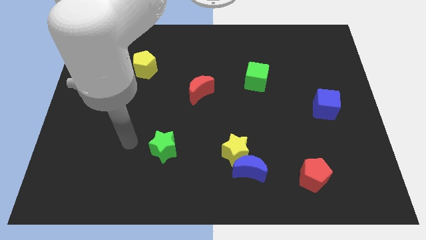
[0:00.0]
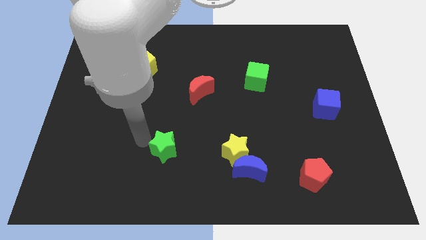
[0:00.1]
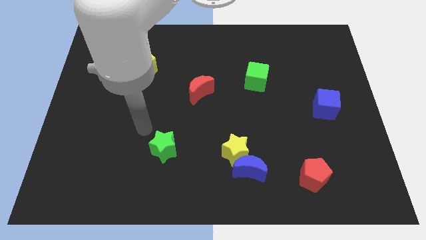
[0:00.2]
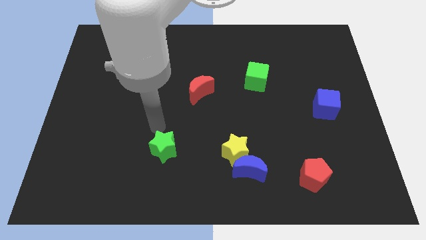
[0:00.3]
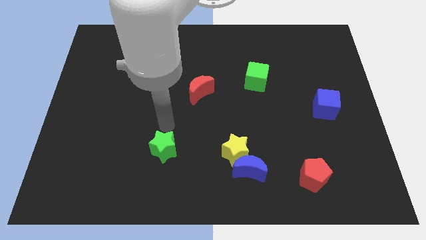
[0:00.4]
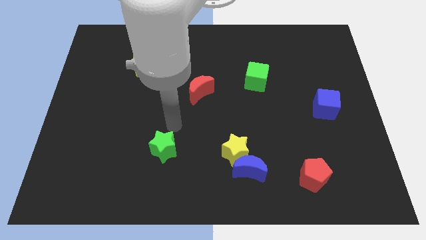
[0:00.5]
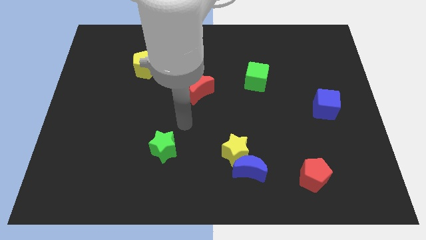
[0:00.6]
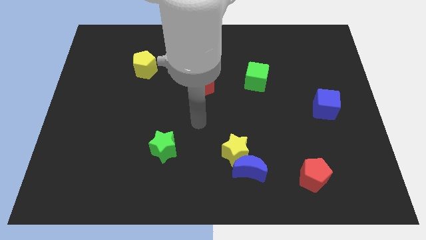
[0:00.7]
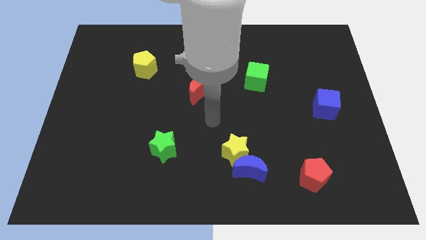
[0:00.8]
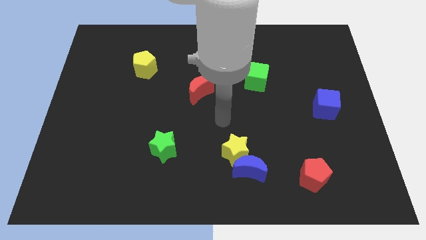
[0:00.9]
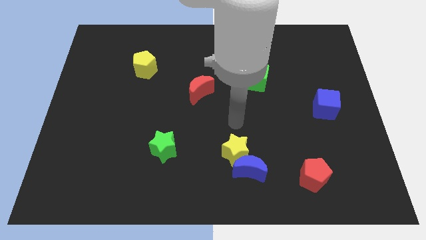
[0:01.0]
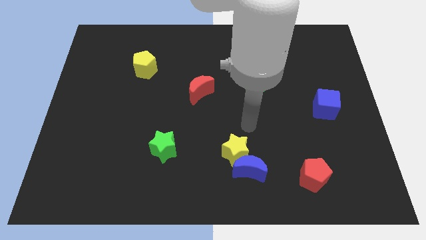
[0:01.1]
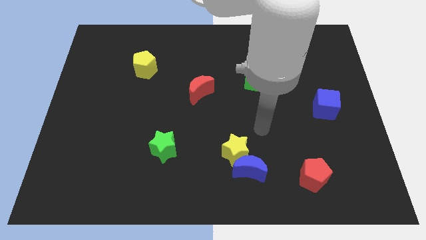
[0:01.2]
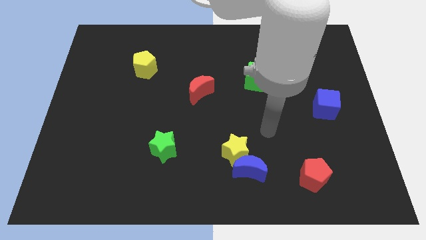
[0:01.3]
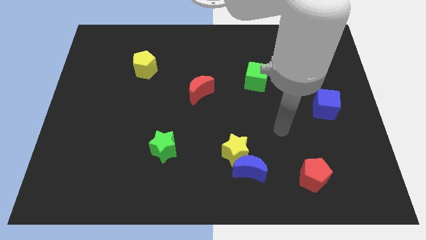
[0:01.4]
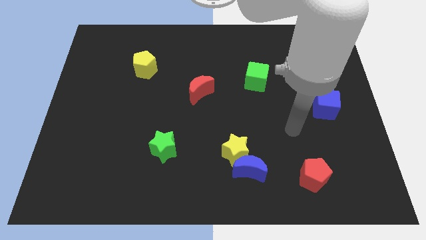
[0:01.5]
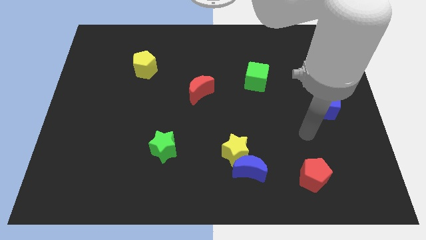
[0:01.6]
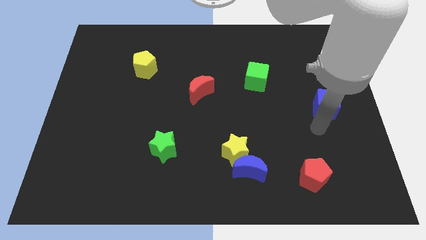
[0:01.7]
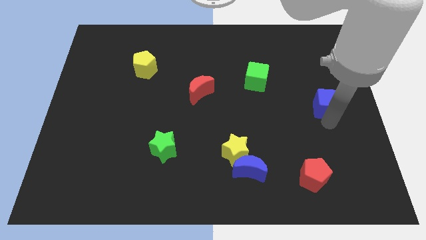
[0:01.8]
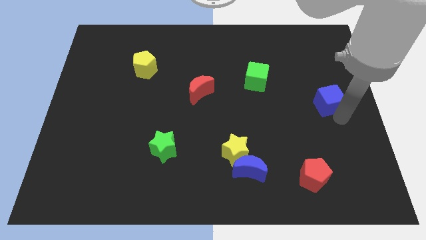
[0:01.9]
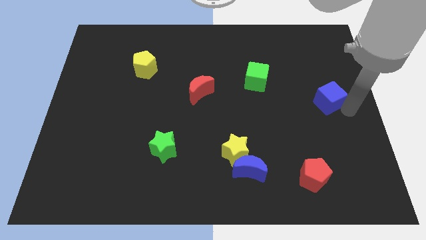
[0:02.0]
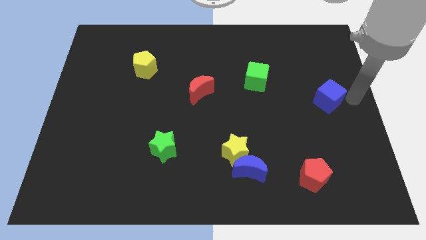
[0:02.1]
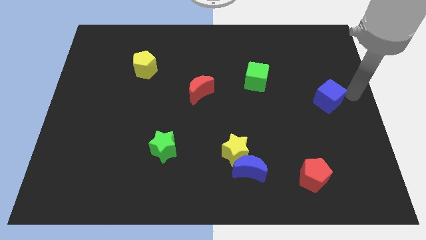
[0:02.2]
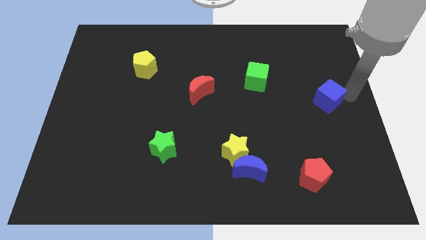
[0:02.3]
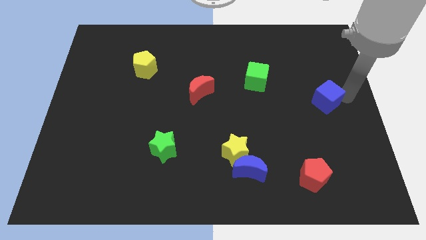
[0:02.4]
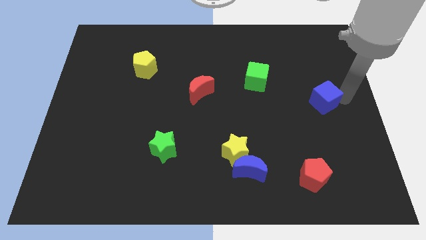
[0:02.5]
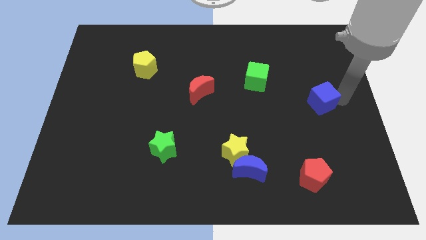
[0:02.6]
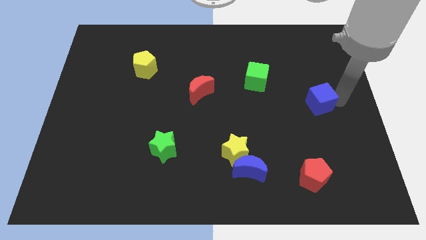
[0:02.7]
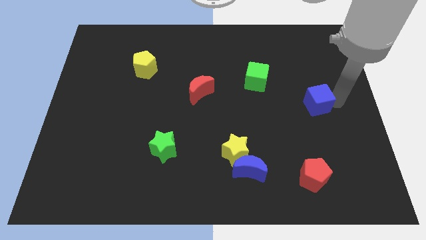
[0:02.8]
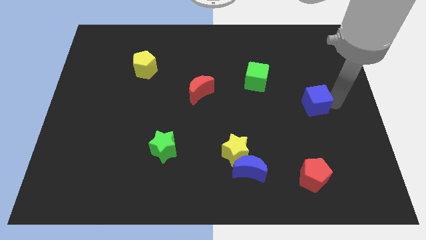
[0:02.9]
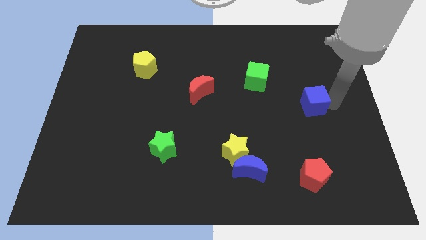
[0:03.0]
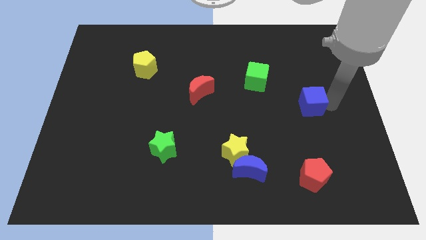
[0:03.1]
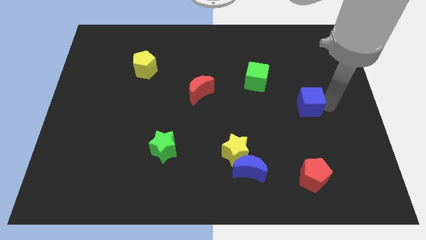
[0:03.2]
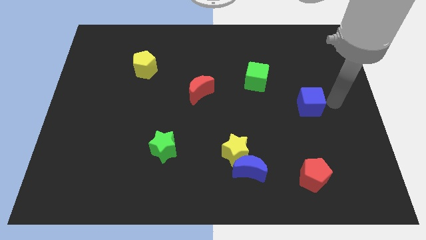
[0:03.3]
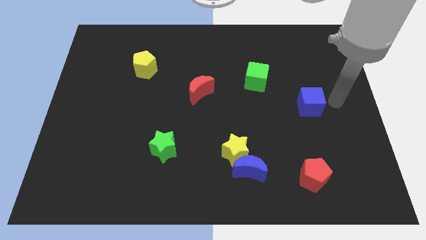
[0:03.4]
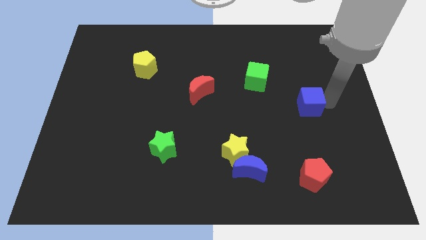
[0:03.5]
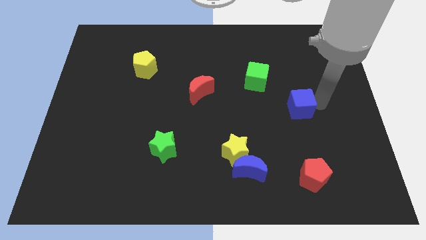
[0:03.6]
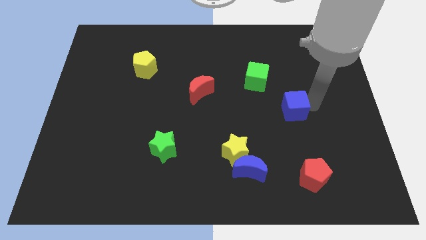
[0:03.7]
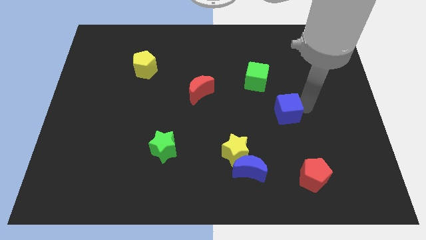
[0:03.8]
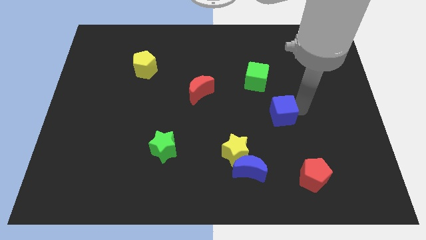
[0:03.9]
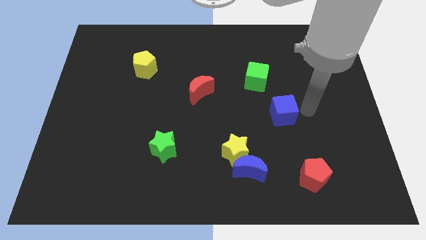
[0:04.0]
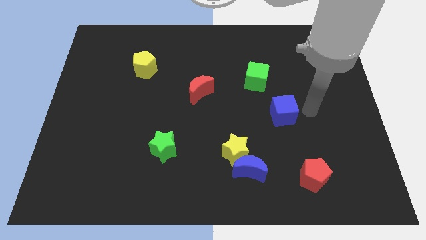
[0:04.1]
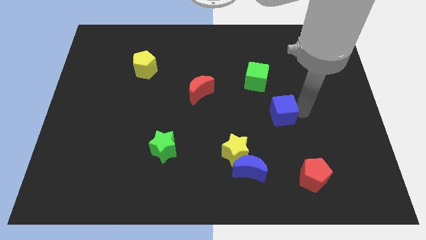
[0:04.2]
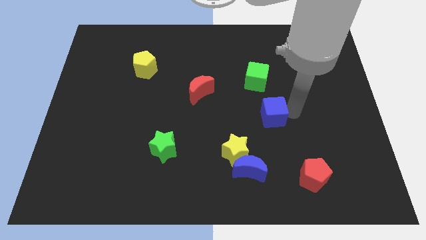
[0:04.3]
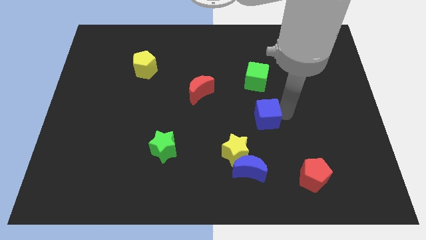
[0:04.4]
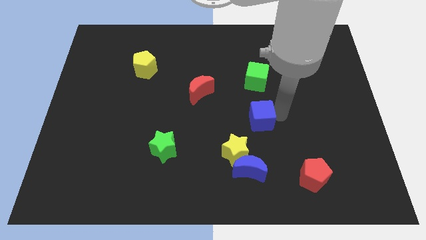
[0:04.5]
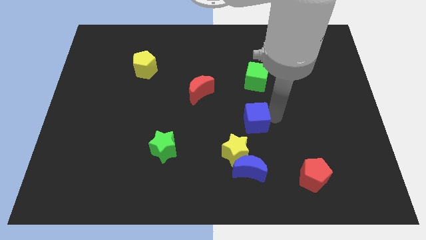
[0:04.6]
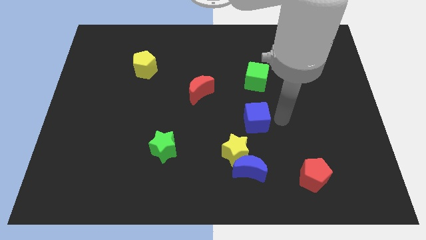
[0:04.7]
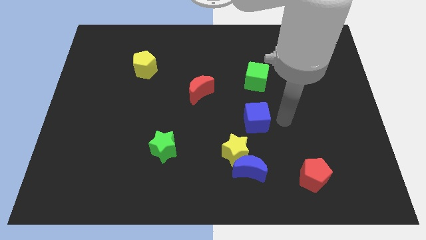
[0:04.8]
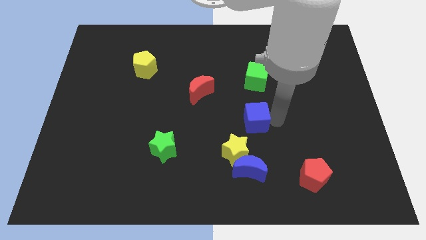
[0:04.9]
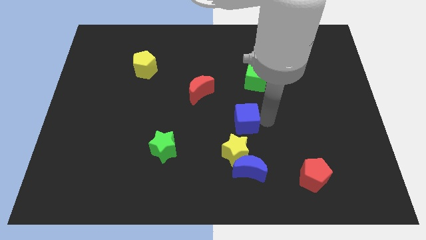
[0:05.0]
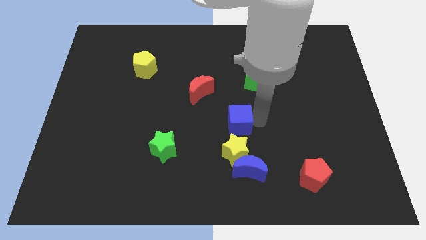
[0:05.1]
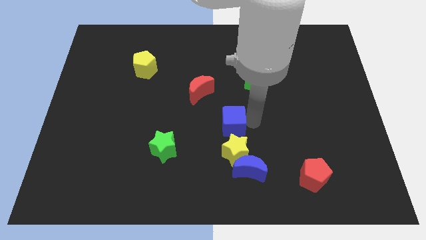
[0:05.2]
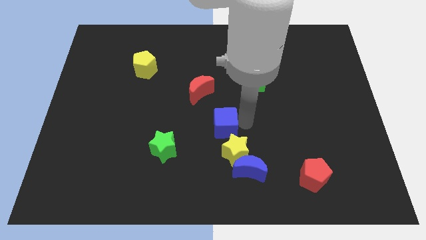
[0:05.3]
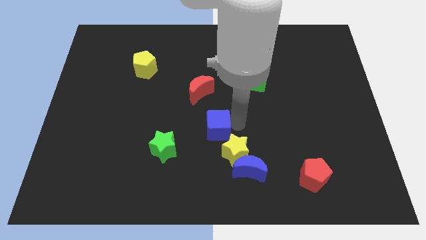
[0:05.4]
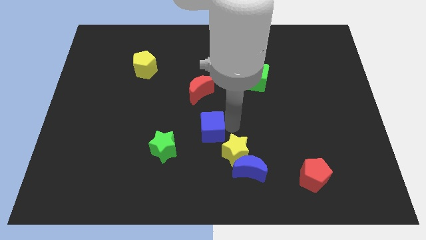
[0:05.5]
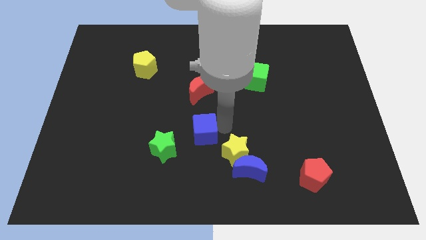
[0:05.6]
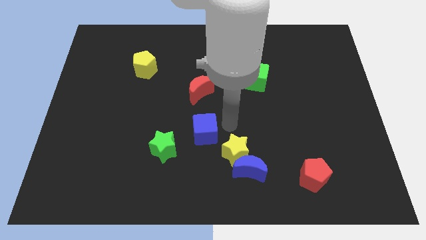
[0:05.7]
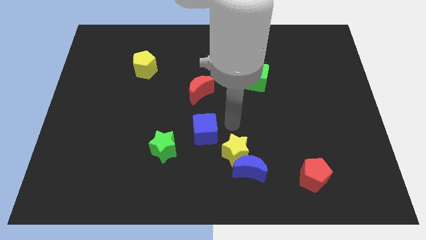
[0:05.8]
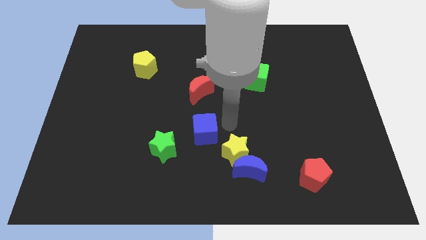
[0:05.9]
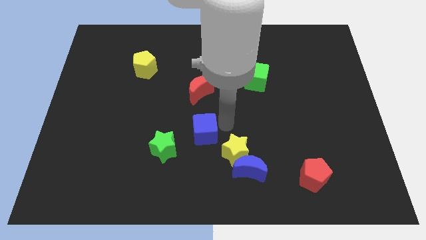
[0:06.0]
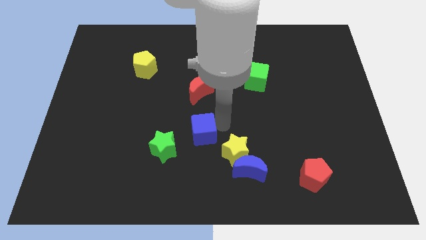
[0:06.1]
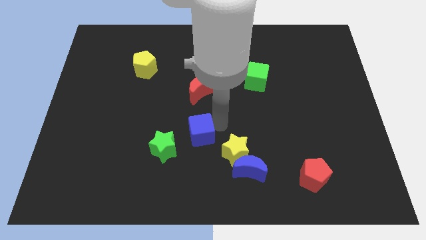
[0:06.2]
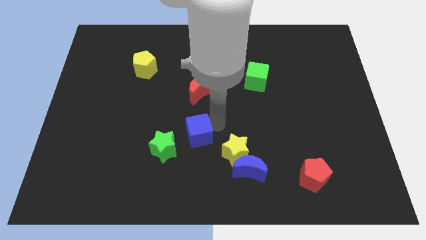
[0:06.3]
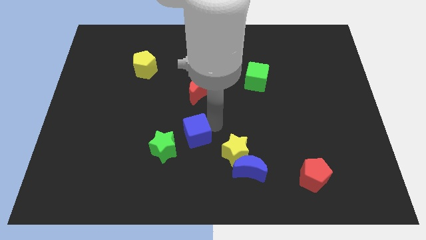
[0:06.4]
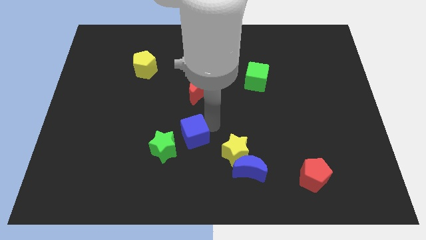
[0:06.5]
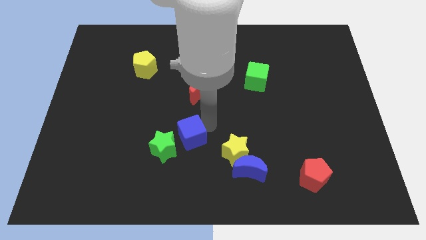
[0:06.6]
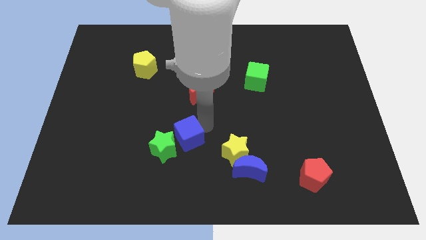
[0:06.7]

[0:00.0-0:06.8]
push the blue cube next to the green star

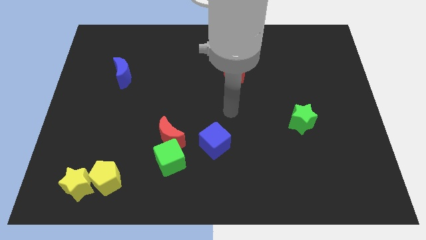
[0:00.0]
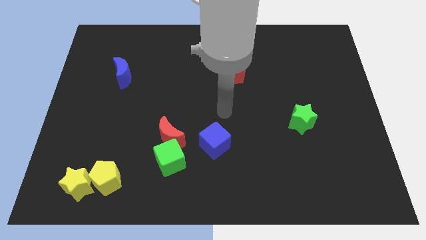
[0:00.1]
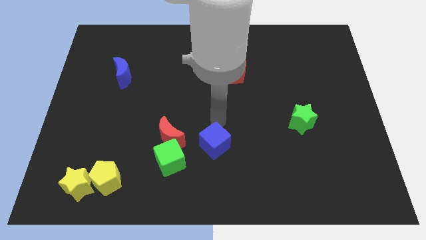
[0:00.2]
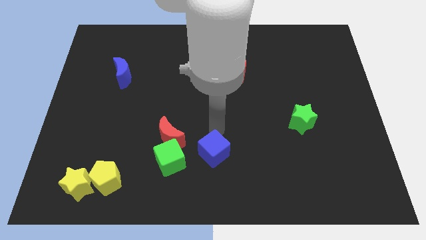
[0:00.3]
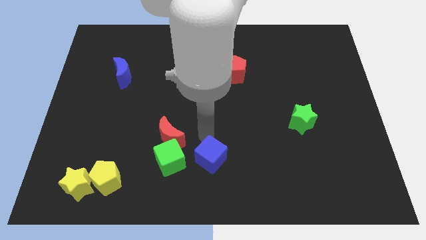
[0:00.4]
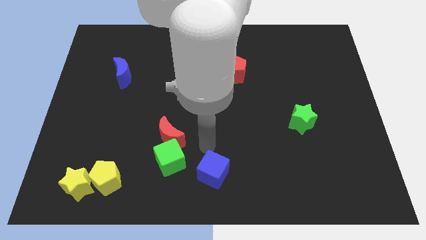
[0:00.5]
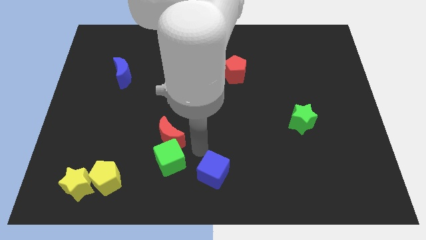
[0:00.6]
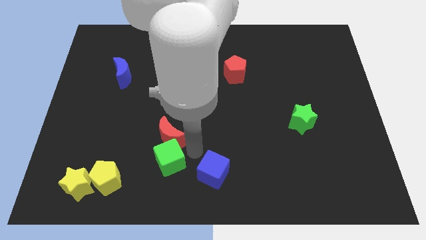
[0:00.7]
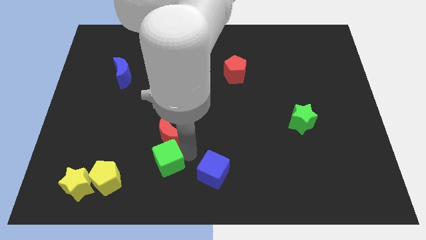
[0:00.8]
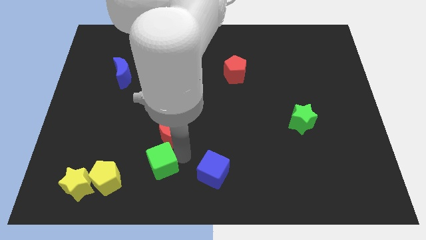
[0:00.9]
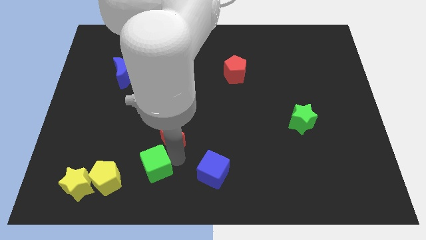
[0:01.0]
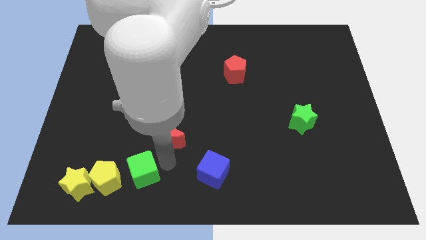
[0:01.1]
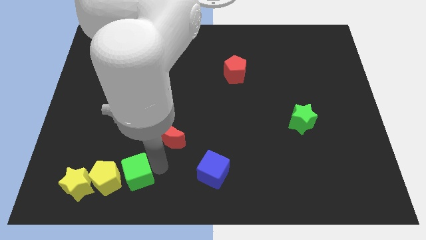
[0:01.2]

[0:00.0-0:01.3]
push the green cube next to the yellow pentagon
